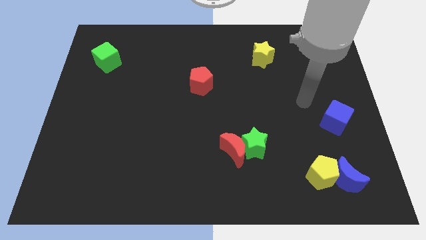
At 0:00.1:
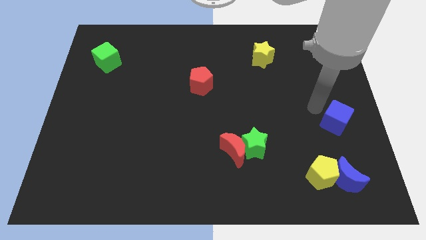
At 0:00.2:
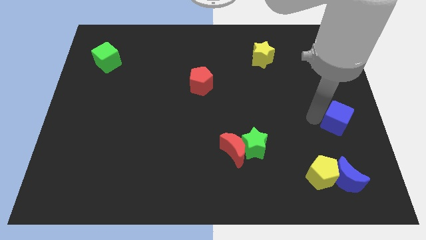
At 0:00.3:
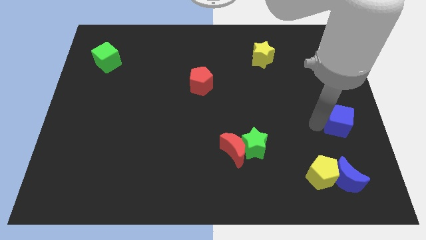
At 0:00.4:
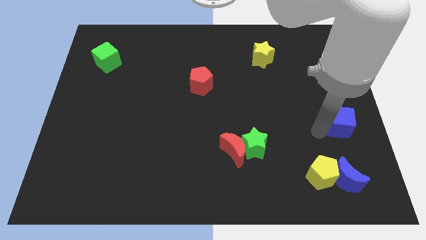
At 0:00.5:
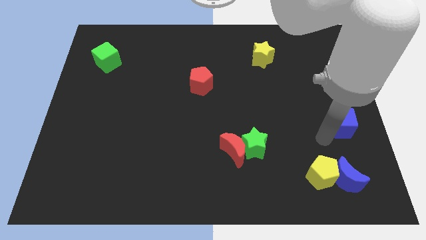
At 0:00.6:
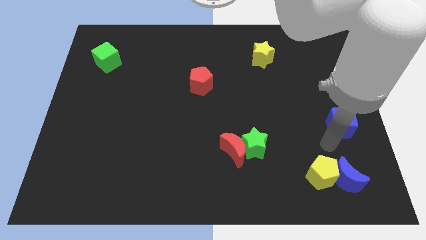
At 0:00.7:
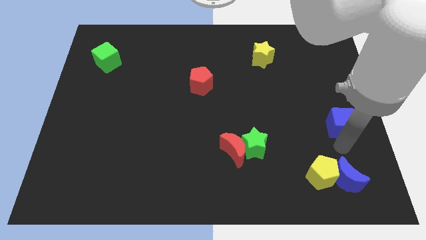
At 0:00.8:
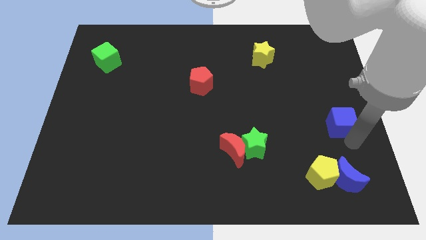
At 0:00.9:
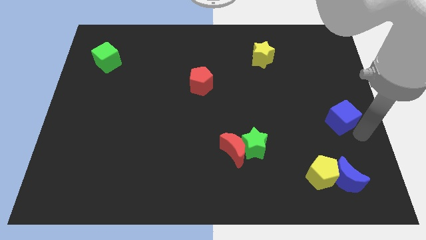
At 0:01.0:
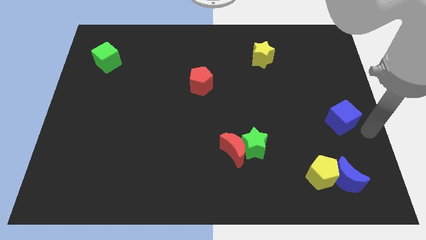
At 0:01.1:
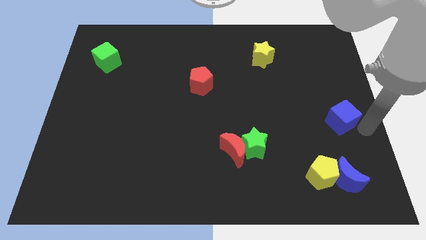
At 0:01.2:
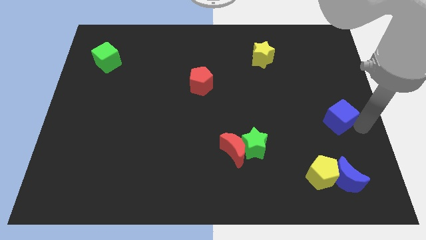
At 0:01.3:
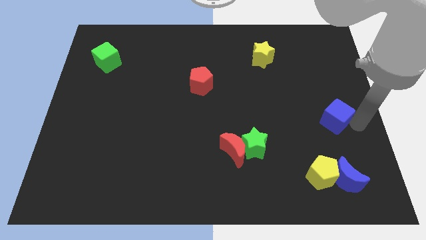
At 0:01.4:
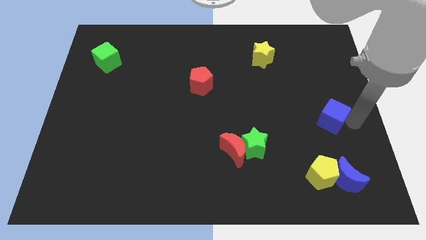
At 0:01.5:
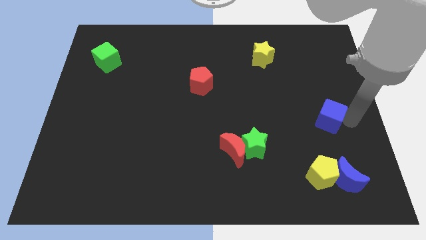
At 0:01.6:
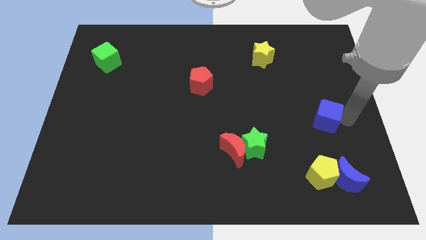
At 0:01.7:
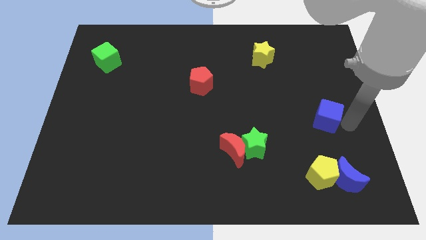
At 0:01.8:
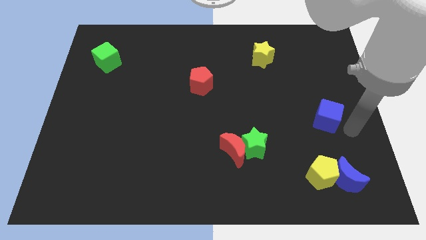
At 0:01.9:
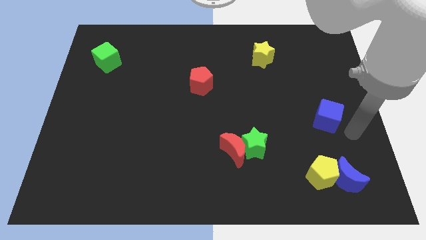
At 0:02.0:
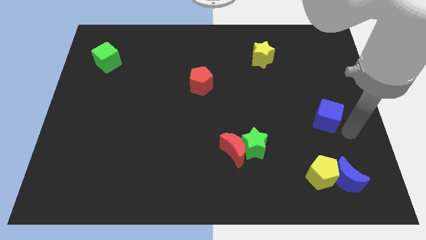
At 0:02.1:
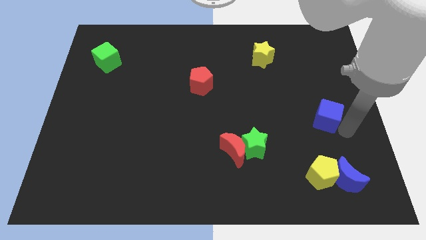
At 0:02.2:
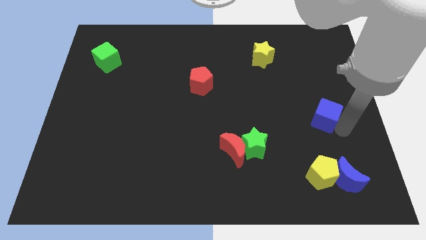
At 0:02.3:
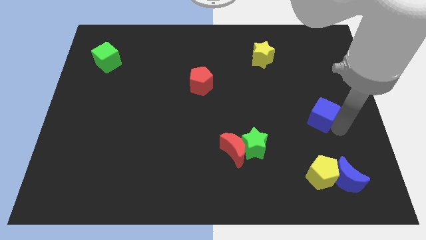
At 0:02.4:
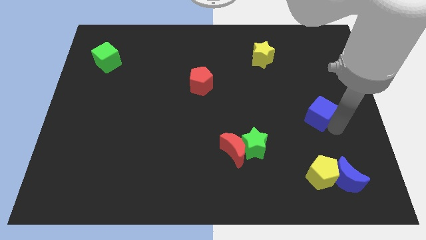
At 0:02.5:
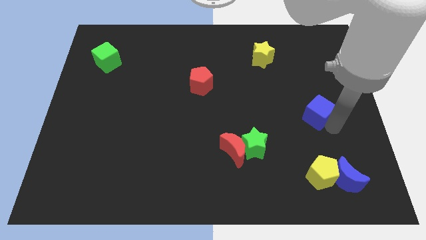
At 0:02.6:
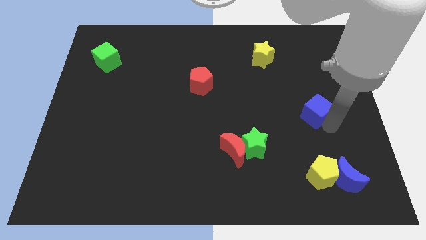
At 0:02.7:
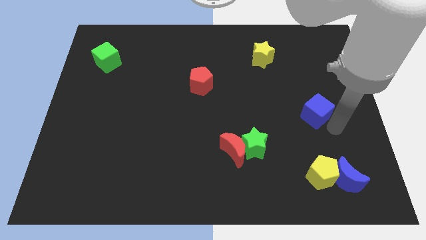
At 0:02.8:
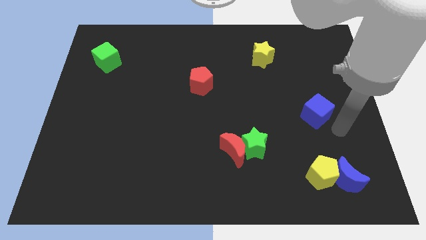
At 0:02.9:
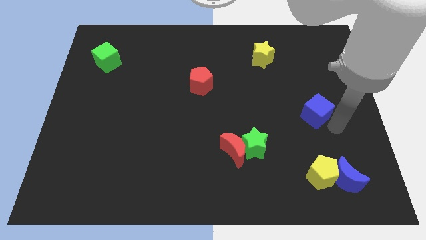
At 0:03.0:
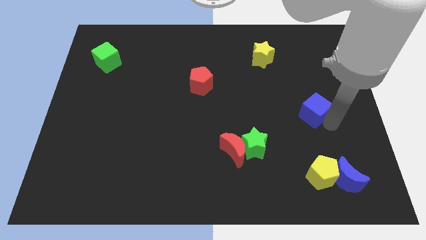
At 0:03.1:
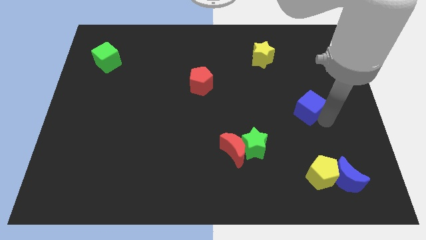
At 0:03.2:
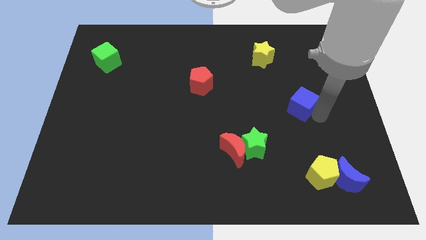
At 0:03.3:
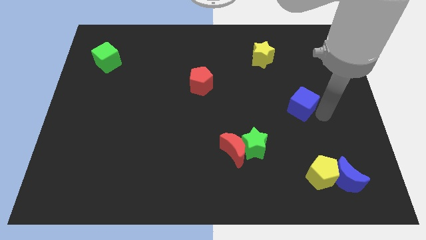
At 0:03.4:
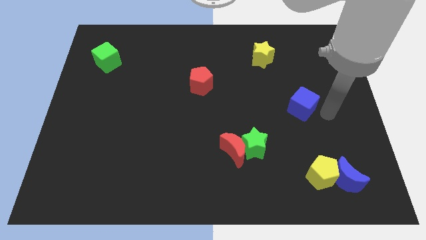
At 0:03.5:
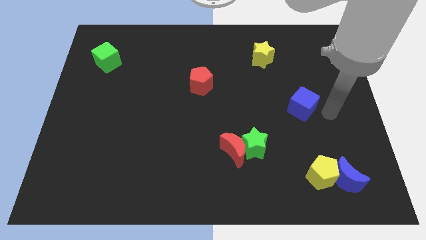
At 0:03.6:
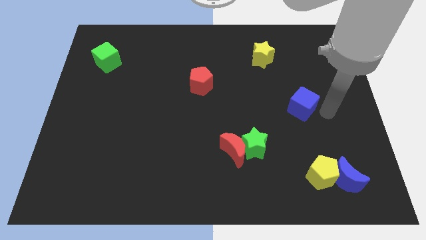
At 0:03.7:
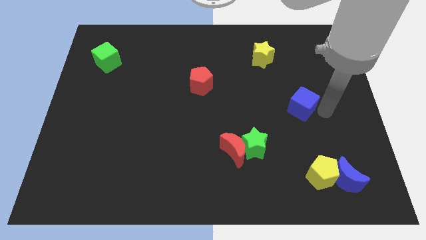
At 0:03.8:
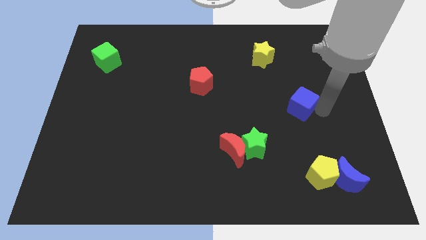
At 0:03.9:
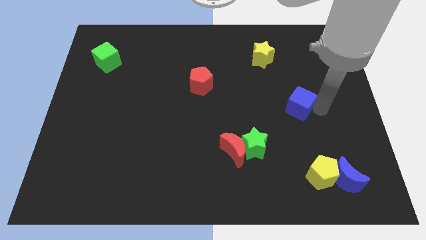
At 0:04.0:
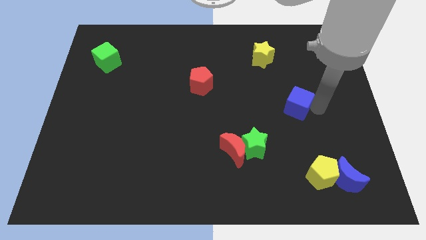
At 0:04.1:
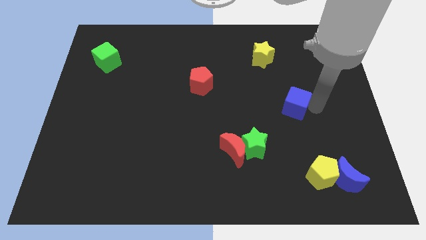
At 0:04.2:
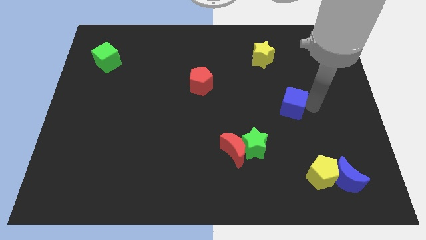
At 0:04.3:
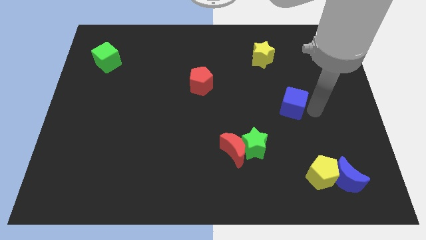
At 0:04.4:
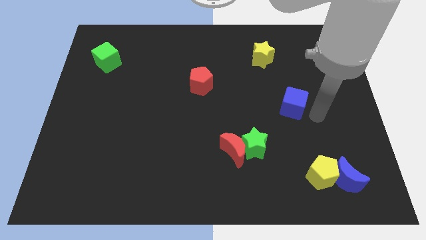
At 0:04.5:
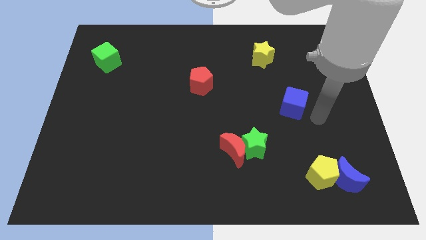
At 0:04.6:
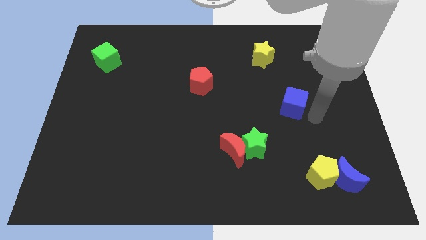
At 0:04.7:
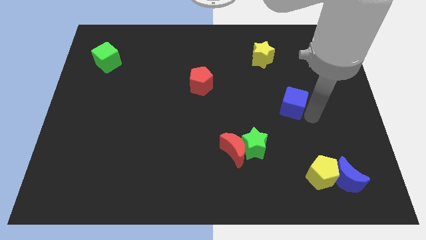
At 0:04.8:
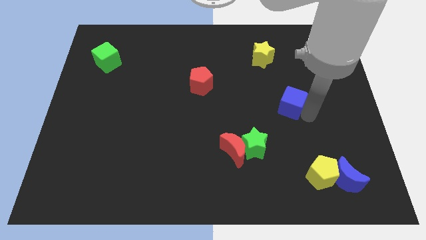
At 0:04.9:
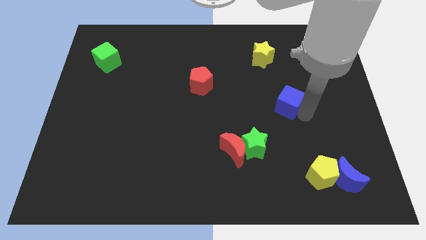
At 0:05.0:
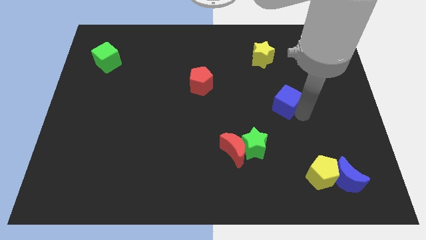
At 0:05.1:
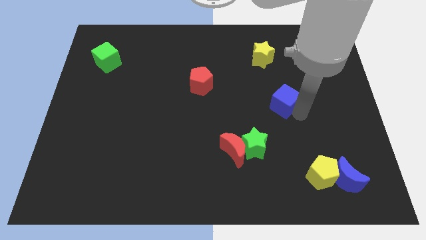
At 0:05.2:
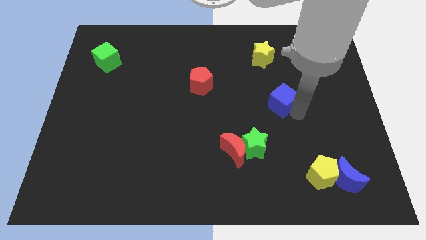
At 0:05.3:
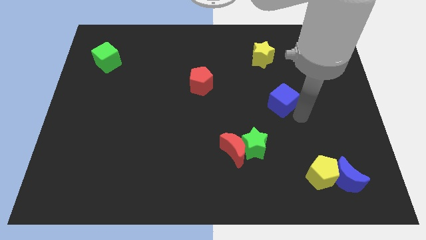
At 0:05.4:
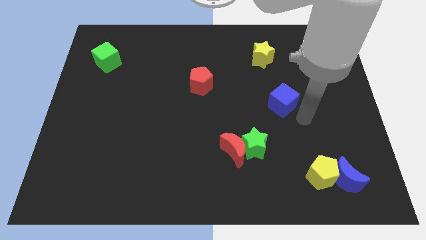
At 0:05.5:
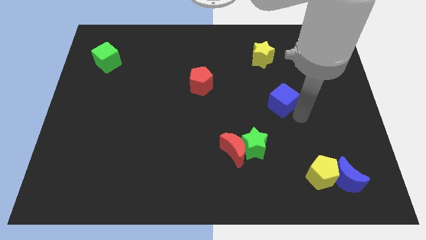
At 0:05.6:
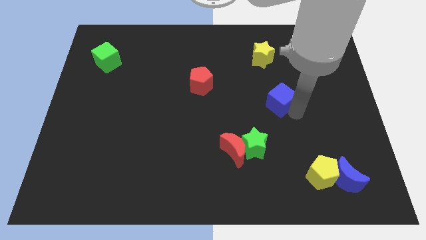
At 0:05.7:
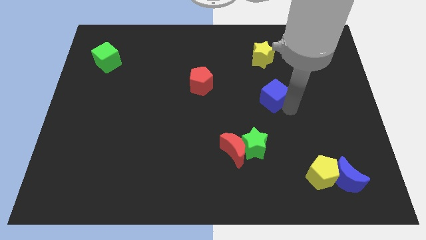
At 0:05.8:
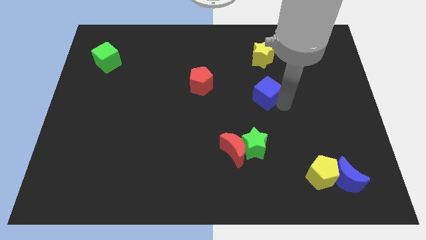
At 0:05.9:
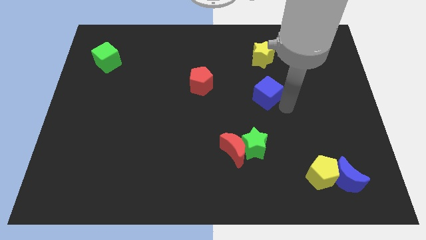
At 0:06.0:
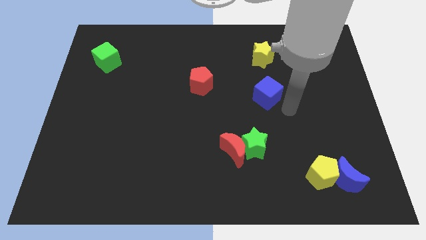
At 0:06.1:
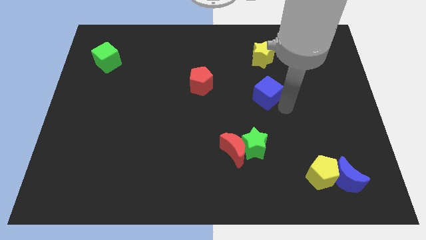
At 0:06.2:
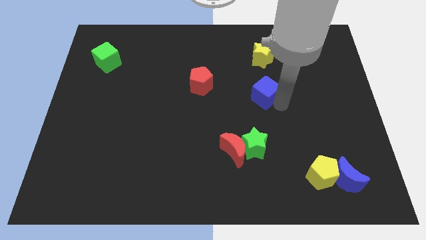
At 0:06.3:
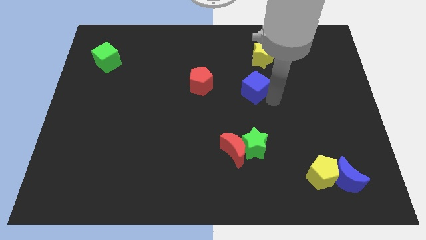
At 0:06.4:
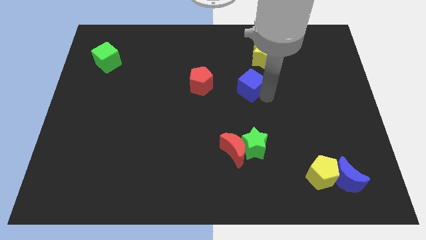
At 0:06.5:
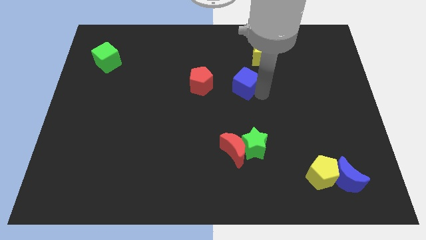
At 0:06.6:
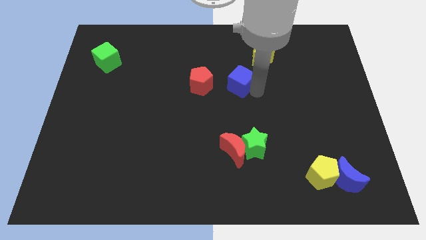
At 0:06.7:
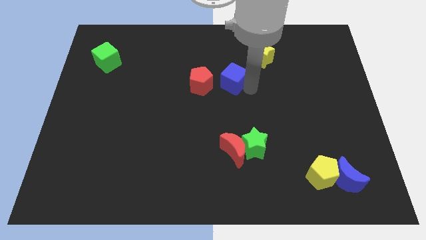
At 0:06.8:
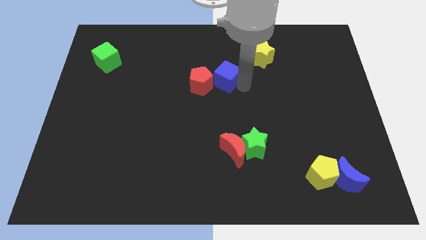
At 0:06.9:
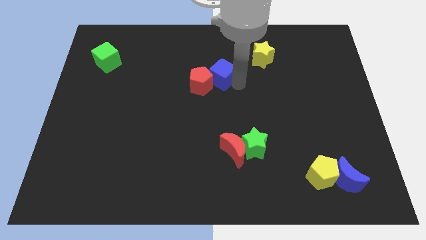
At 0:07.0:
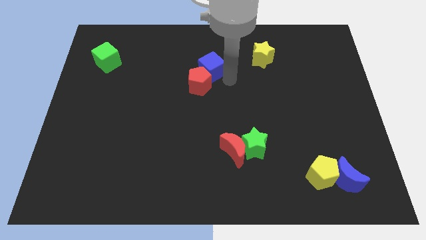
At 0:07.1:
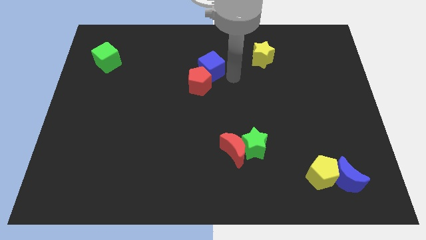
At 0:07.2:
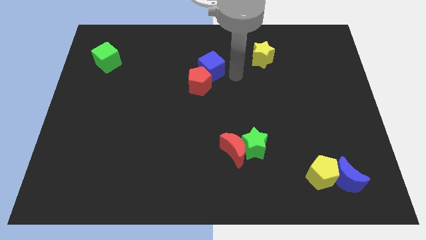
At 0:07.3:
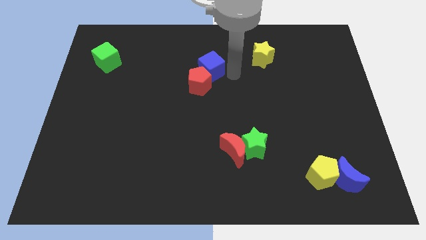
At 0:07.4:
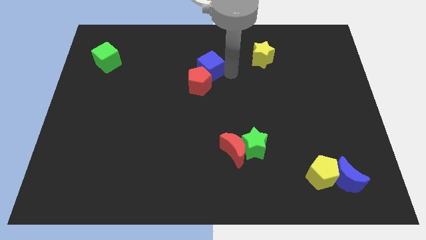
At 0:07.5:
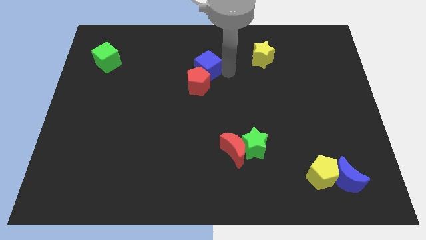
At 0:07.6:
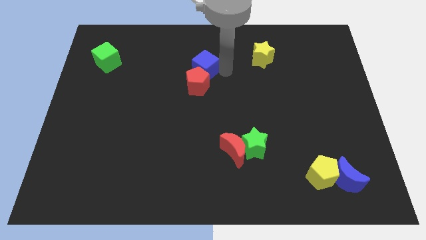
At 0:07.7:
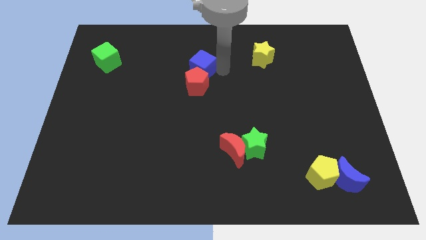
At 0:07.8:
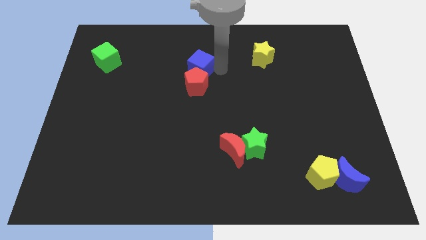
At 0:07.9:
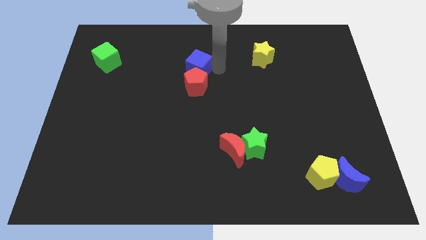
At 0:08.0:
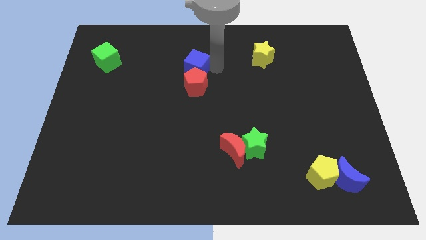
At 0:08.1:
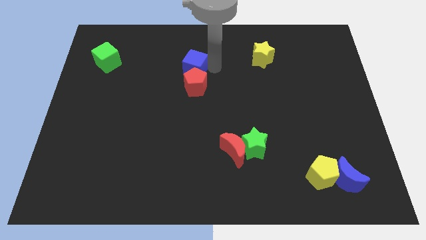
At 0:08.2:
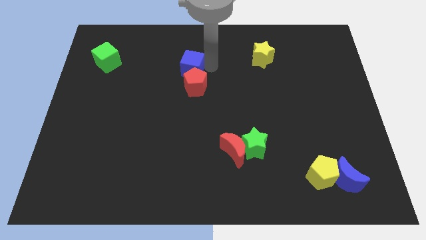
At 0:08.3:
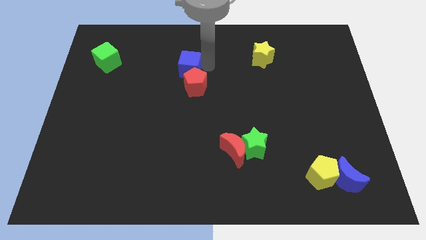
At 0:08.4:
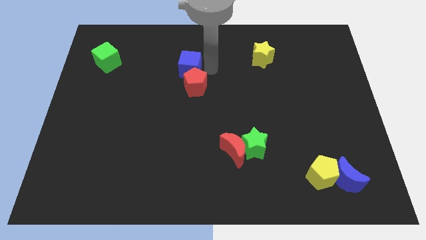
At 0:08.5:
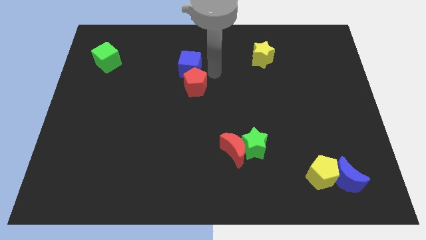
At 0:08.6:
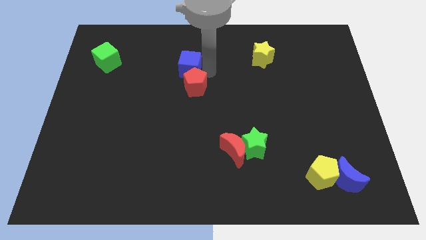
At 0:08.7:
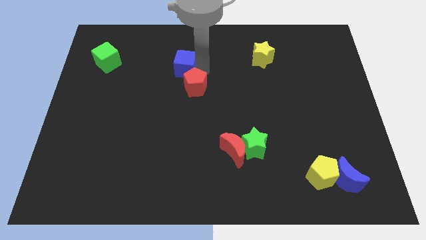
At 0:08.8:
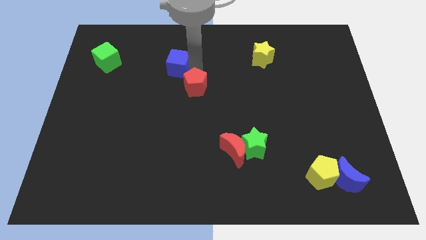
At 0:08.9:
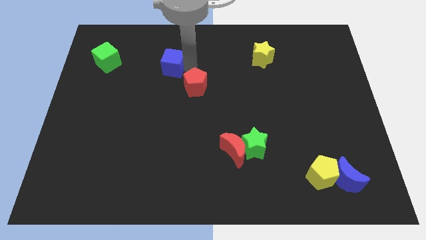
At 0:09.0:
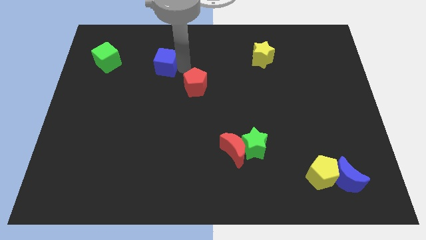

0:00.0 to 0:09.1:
slide the blue cube to the right of the green cube
